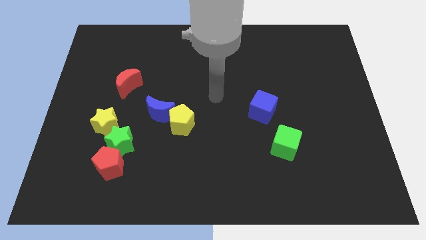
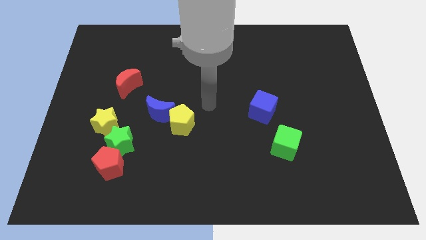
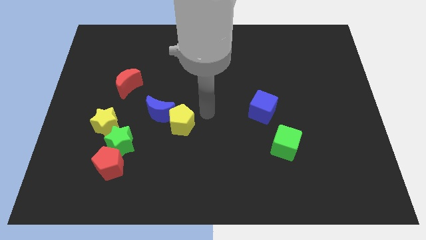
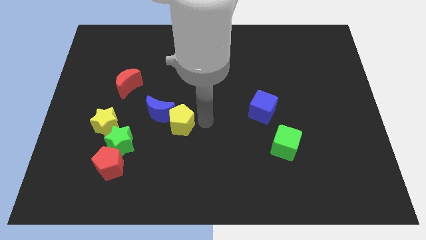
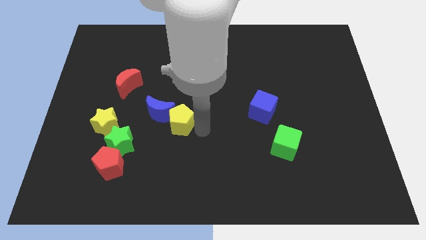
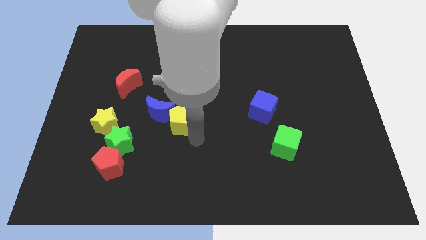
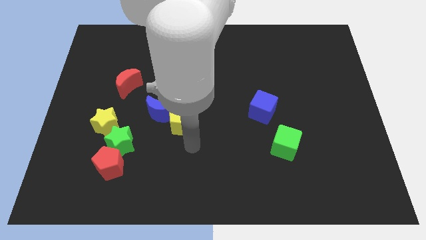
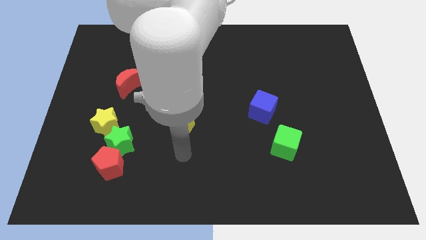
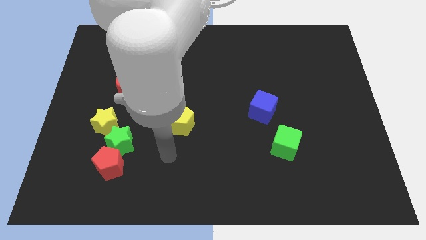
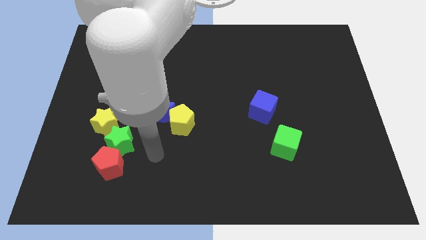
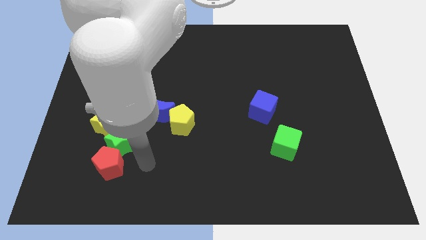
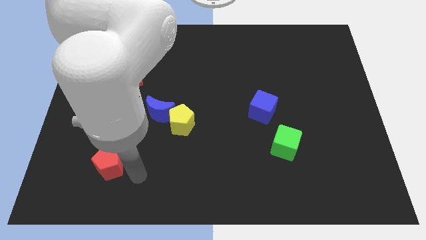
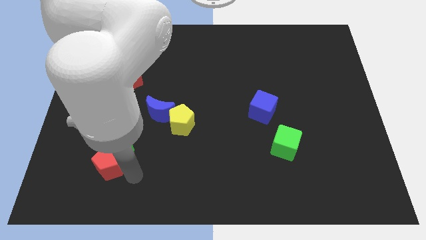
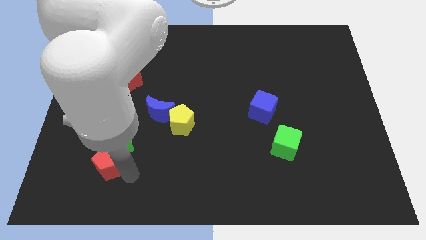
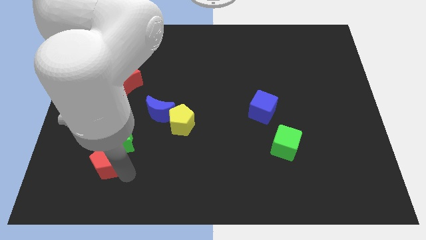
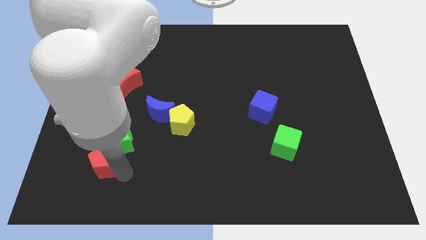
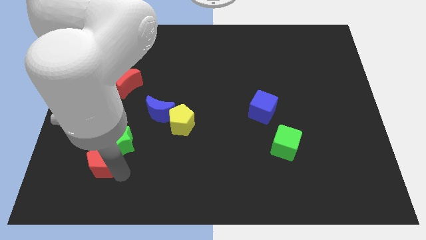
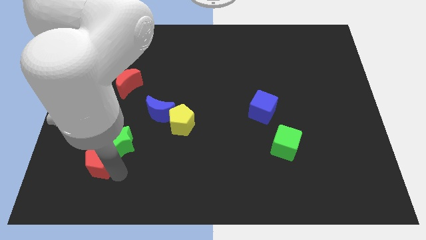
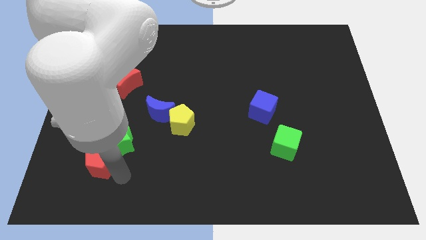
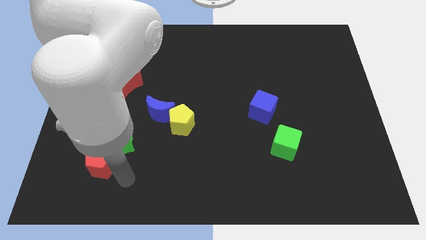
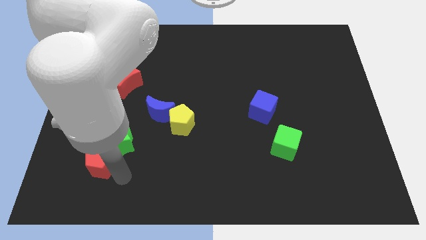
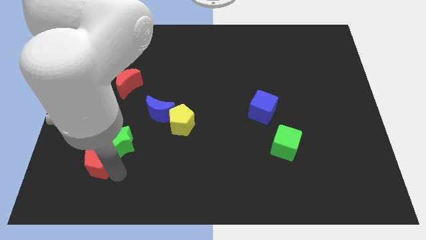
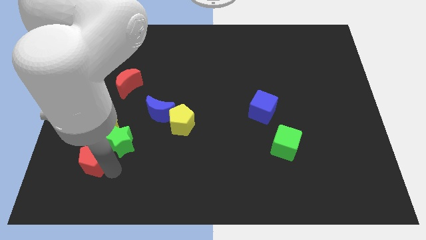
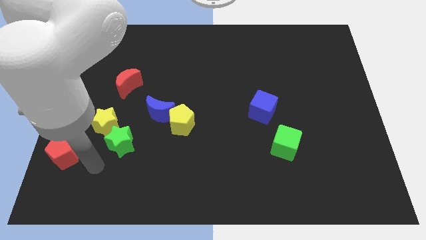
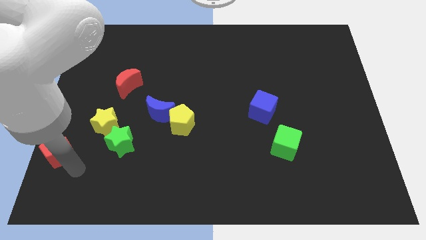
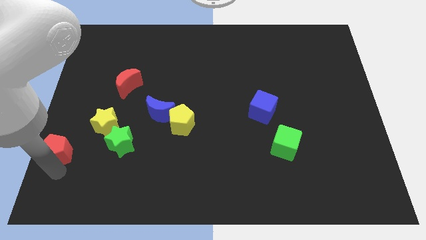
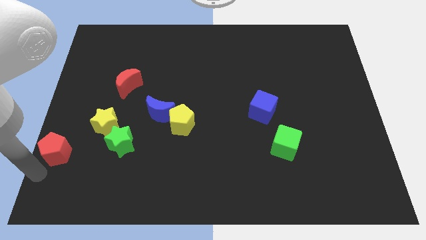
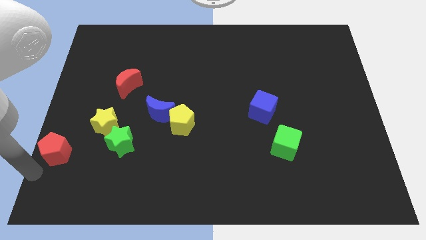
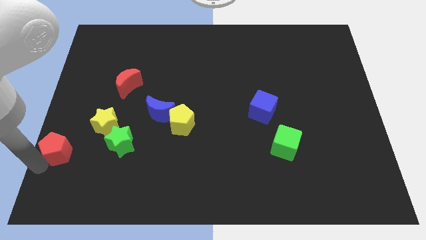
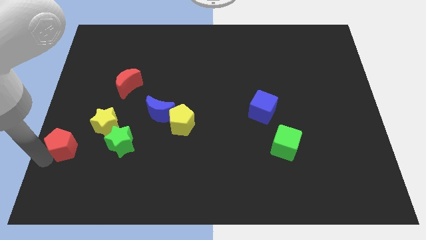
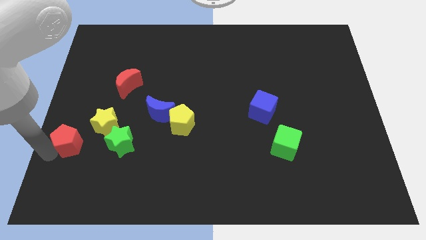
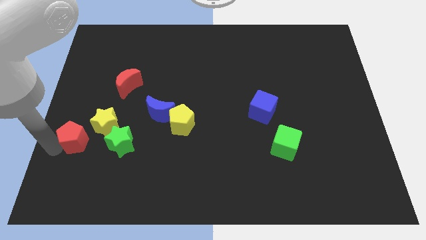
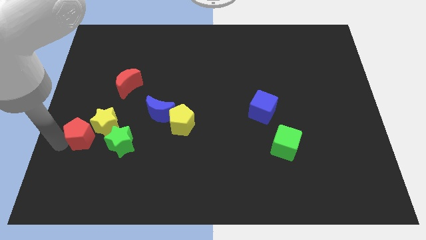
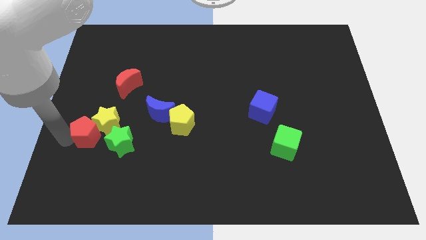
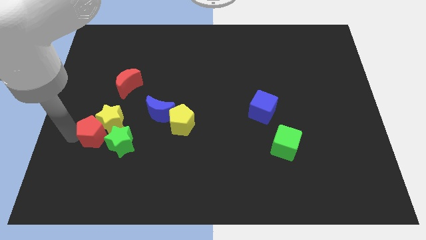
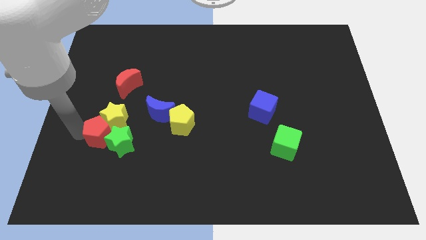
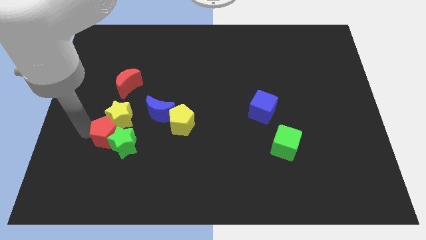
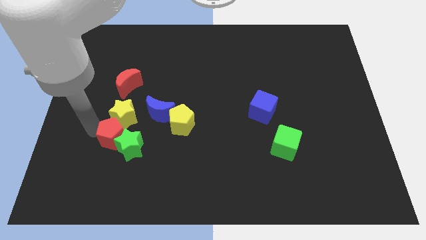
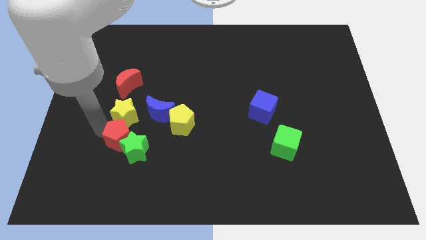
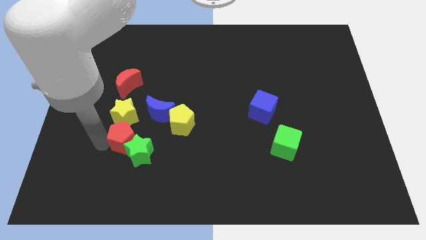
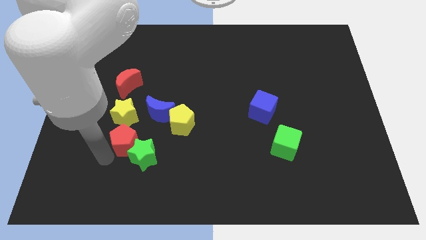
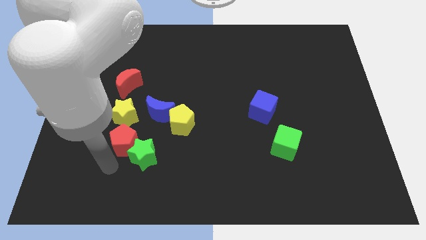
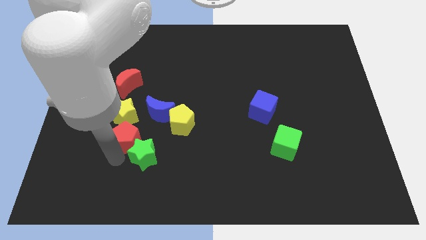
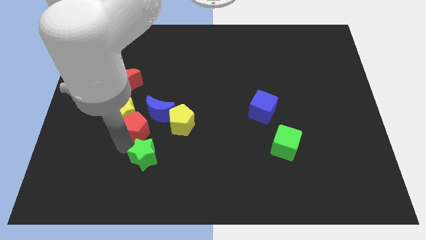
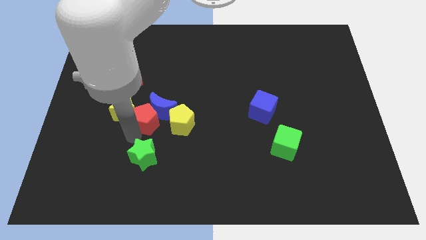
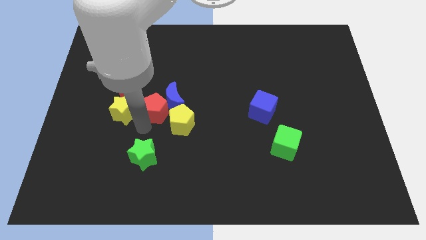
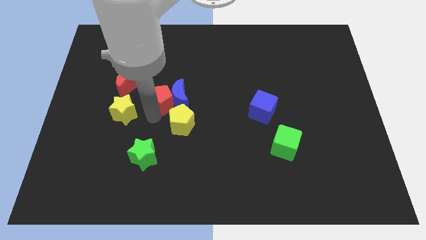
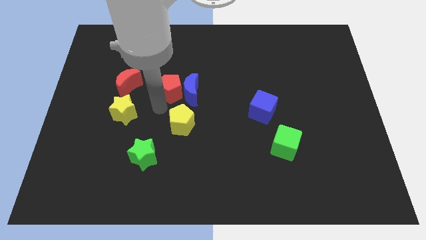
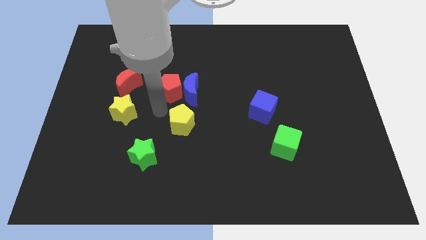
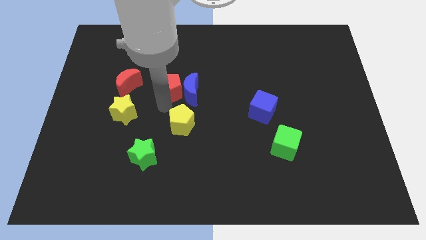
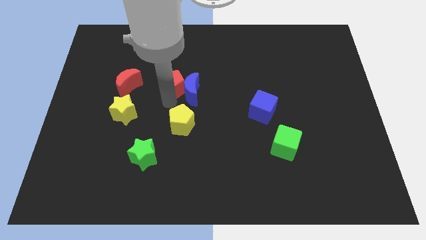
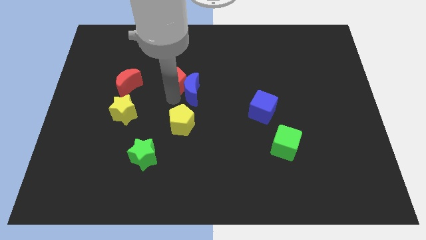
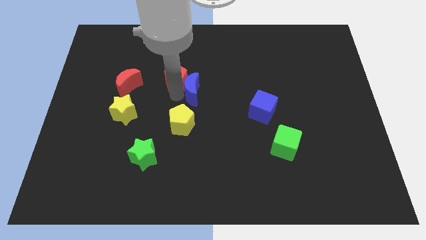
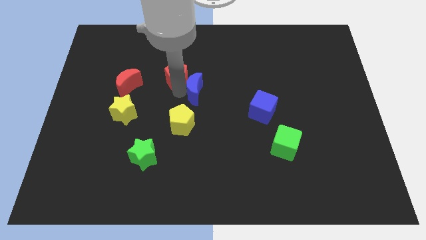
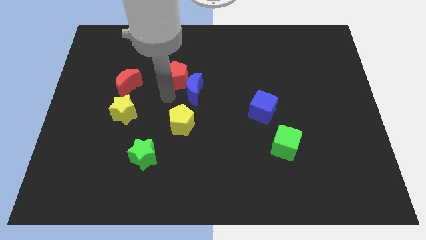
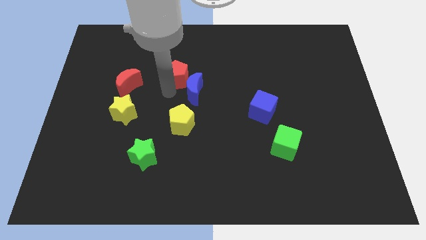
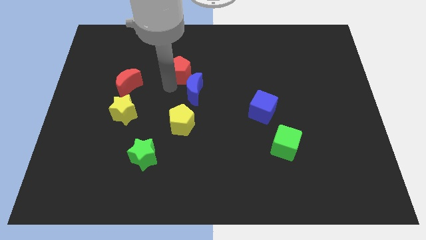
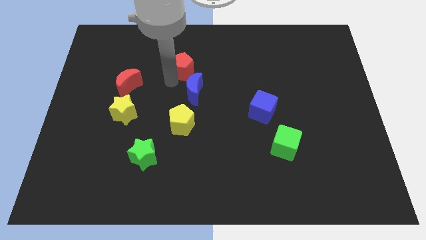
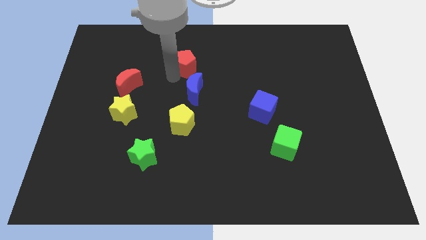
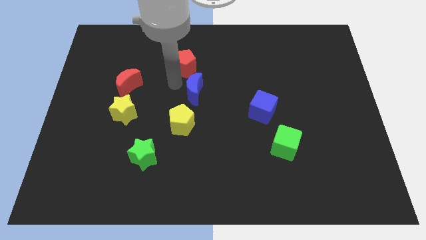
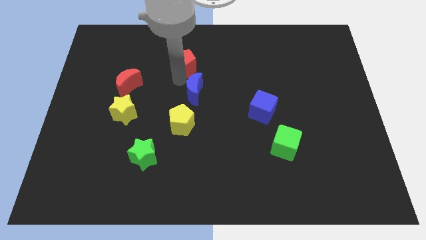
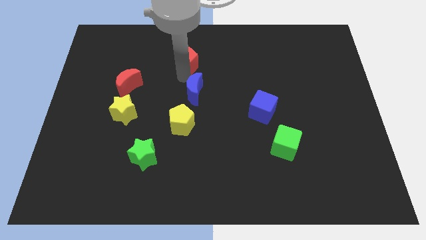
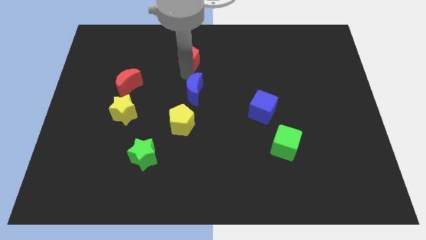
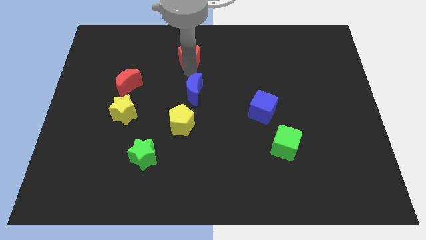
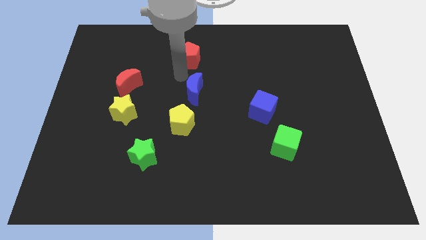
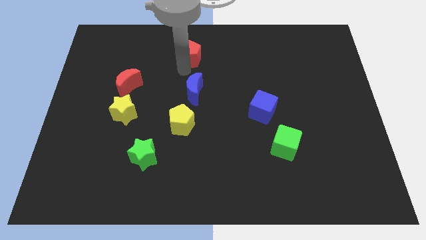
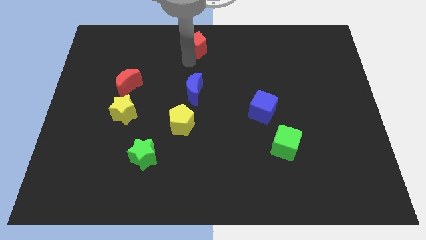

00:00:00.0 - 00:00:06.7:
move the red pentagon to the top side
